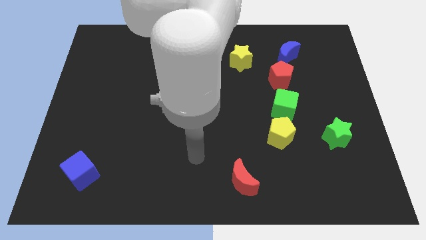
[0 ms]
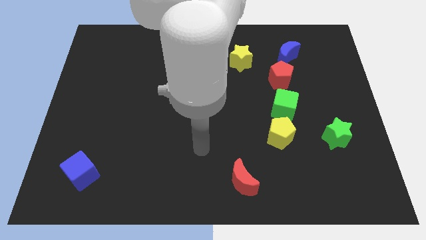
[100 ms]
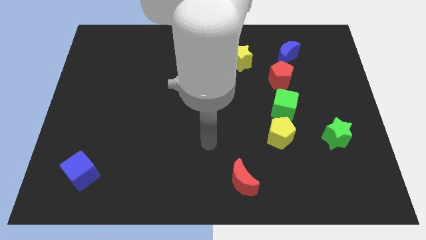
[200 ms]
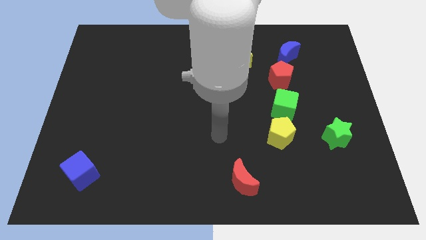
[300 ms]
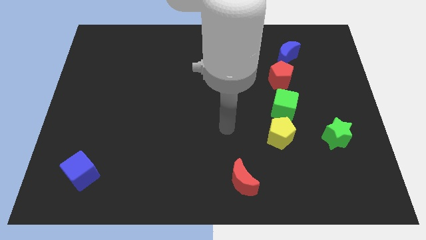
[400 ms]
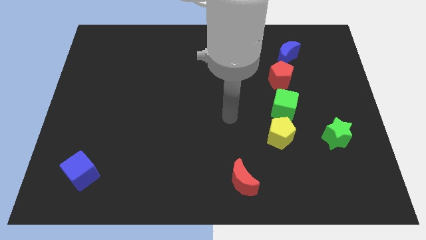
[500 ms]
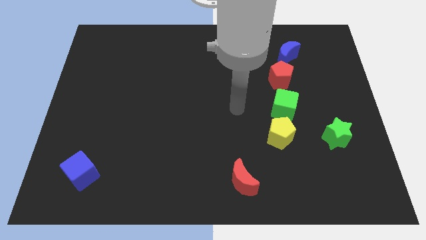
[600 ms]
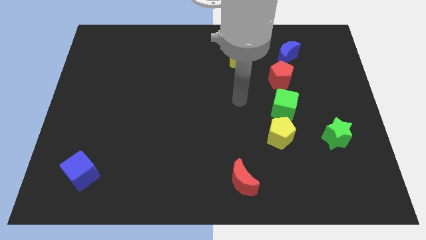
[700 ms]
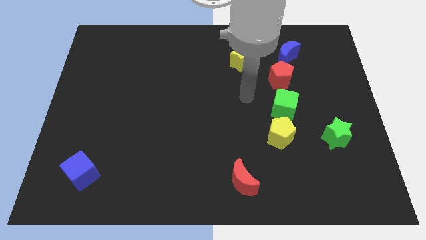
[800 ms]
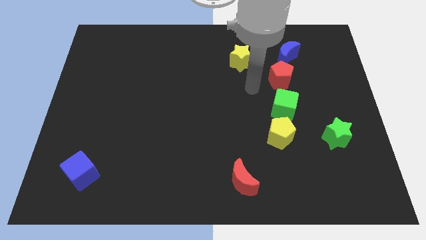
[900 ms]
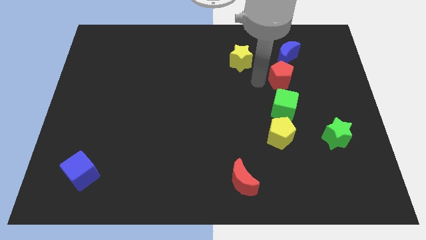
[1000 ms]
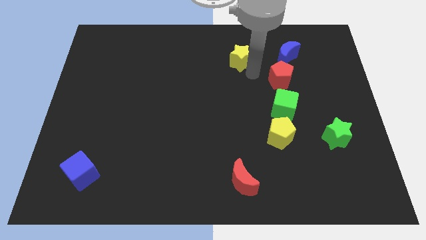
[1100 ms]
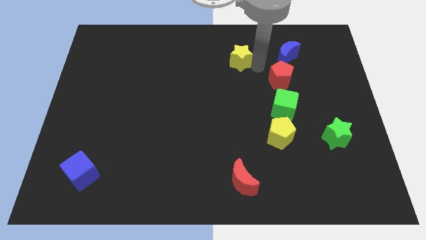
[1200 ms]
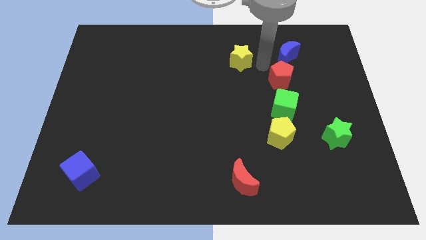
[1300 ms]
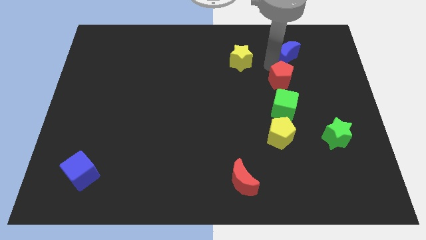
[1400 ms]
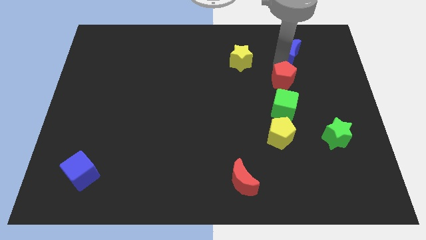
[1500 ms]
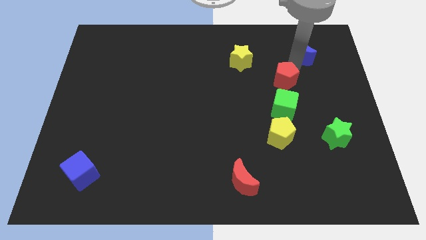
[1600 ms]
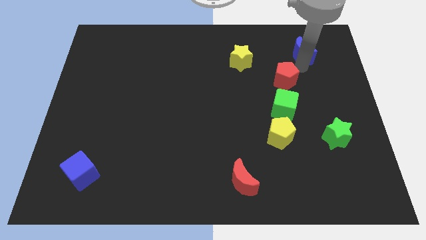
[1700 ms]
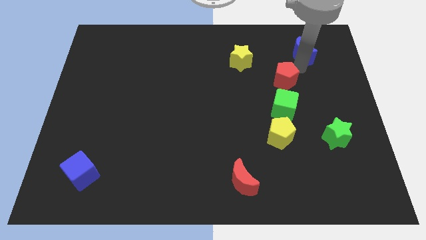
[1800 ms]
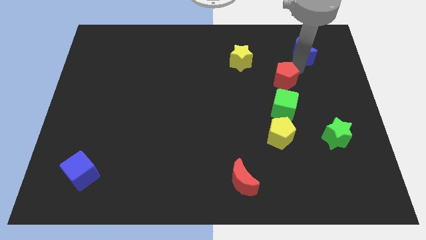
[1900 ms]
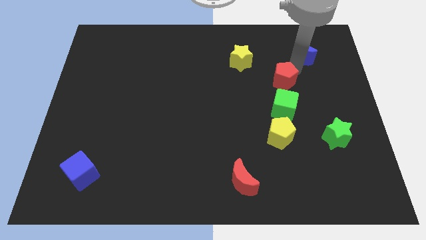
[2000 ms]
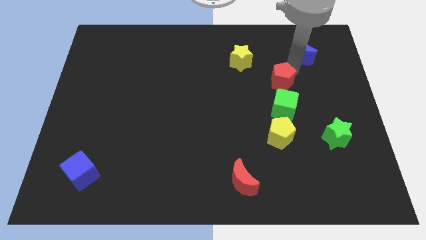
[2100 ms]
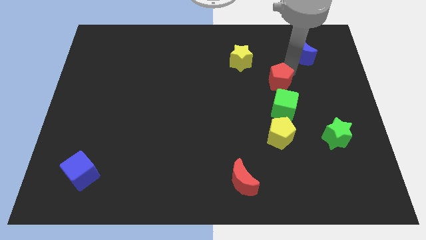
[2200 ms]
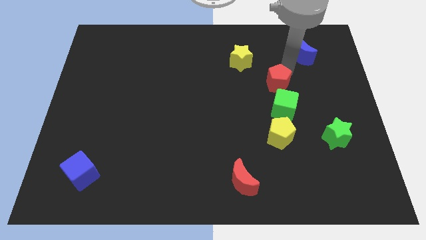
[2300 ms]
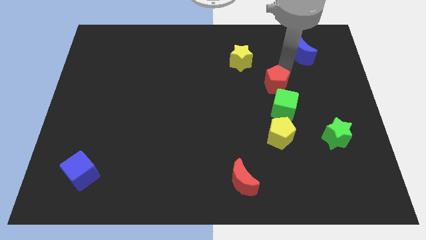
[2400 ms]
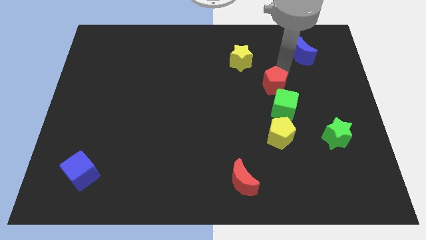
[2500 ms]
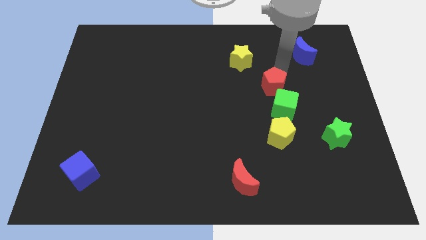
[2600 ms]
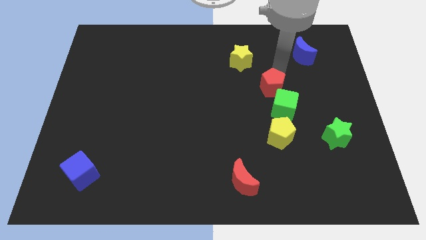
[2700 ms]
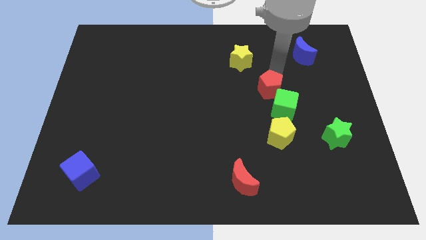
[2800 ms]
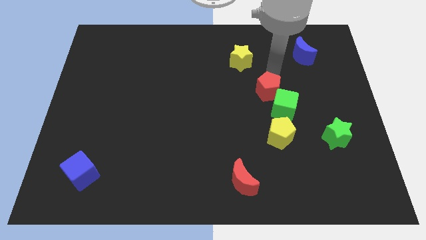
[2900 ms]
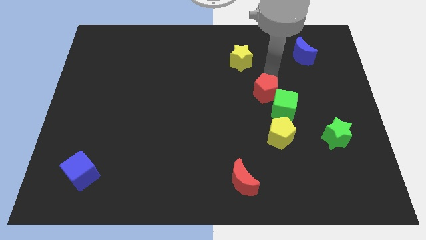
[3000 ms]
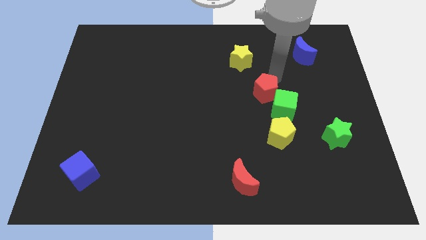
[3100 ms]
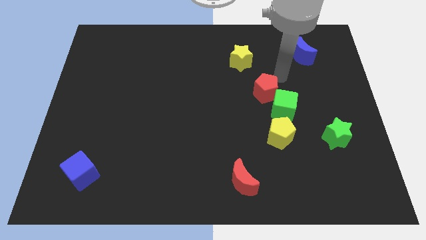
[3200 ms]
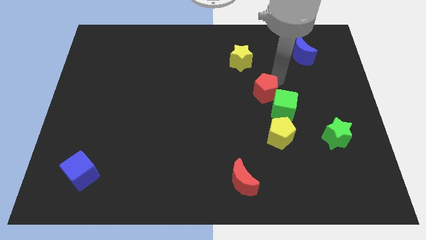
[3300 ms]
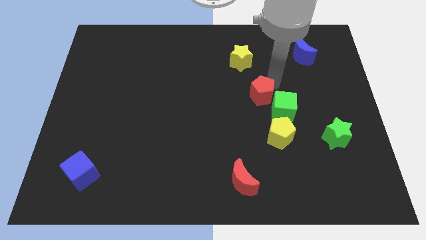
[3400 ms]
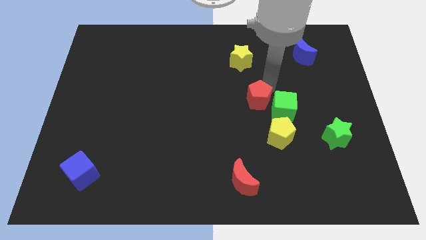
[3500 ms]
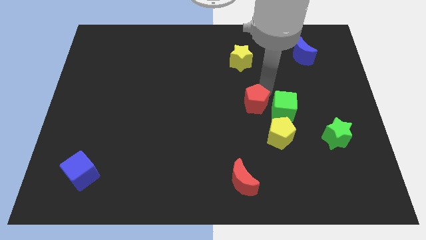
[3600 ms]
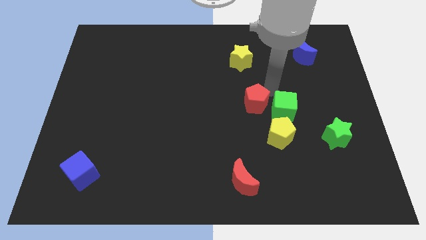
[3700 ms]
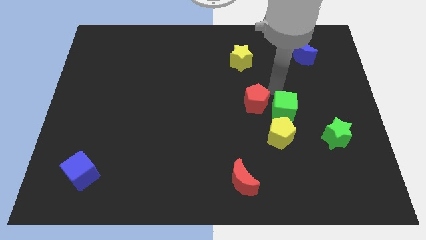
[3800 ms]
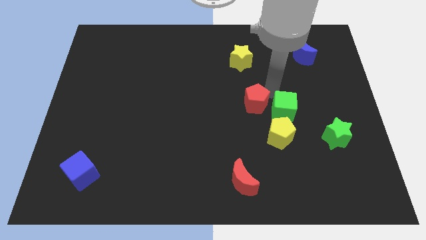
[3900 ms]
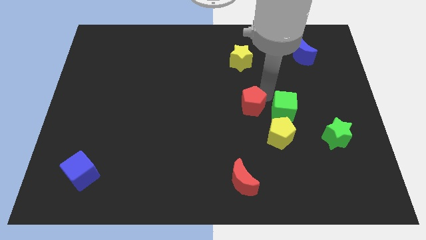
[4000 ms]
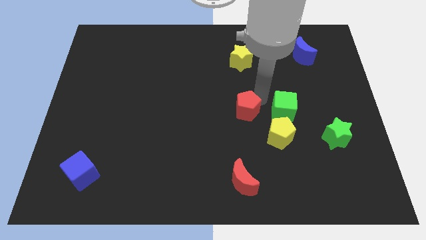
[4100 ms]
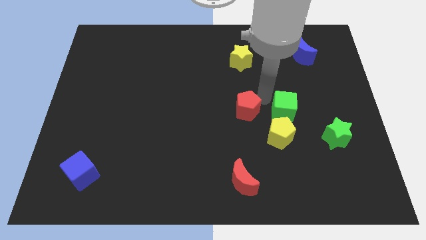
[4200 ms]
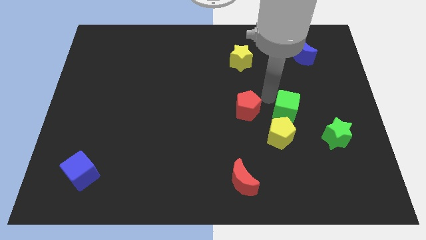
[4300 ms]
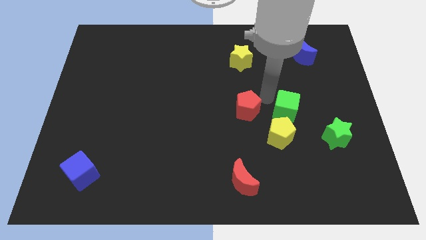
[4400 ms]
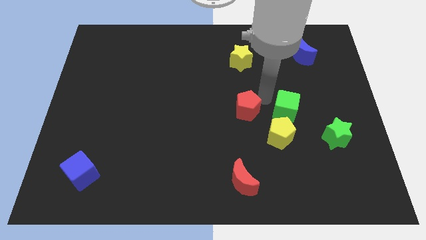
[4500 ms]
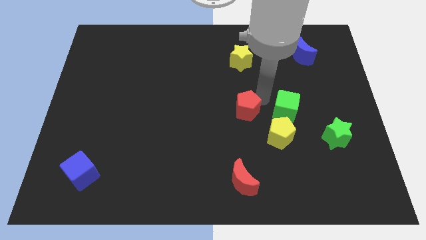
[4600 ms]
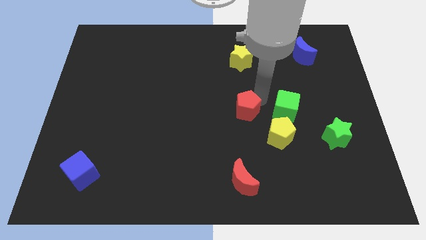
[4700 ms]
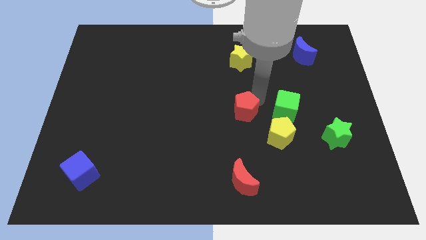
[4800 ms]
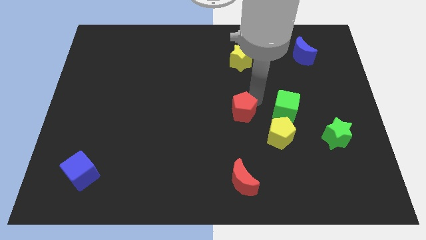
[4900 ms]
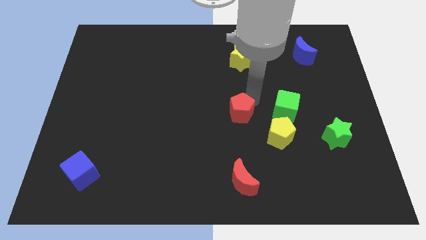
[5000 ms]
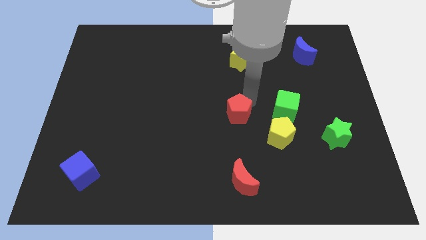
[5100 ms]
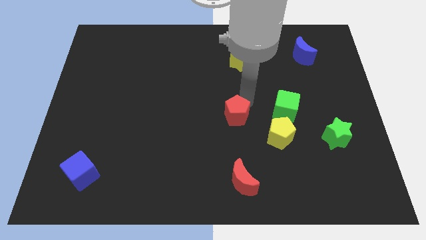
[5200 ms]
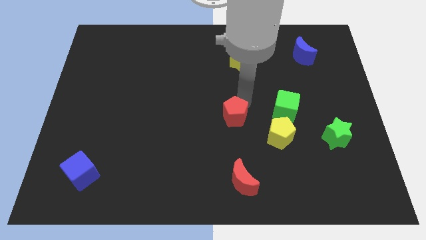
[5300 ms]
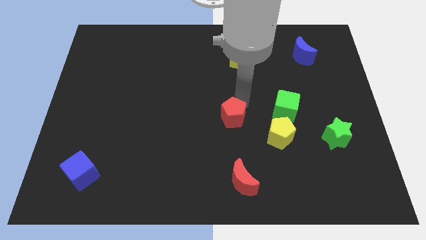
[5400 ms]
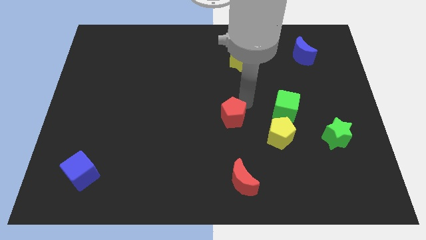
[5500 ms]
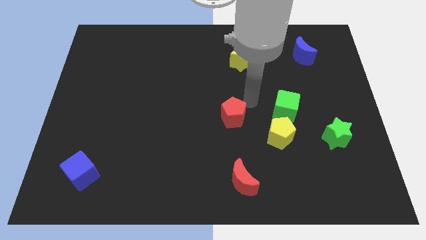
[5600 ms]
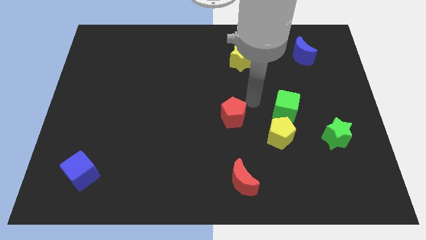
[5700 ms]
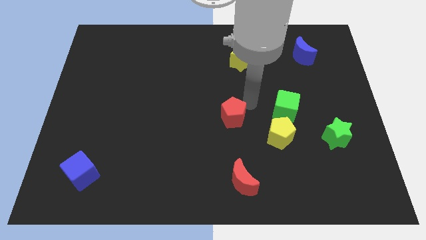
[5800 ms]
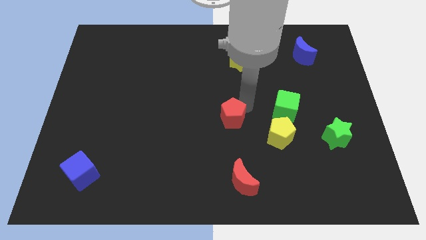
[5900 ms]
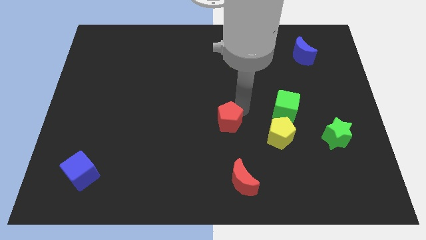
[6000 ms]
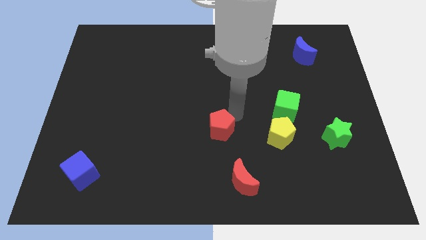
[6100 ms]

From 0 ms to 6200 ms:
slide the red pentagon diagonally downwards and to the left

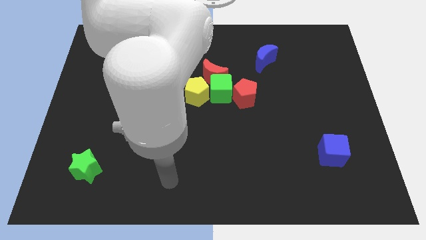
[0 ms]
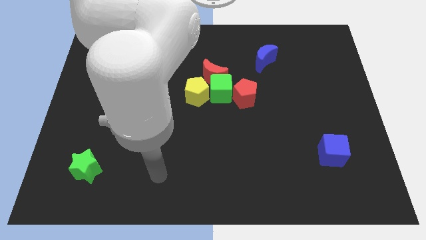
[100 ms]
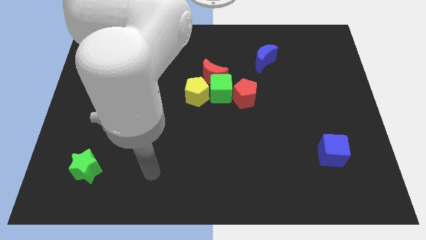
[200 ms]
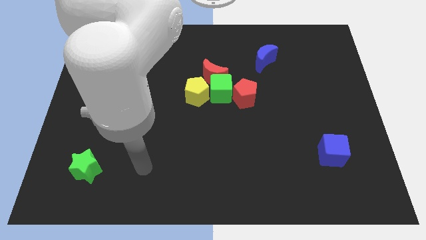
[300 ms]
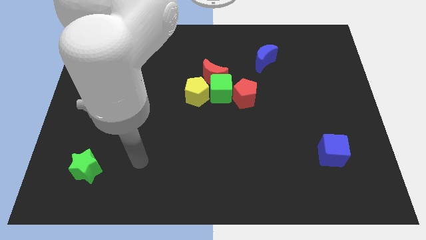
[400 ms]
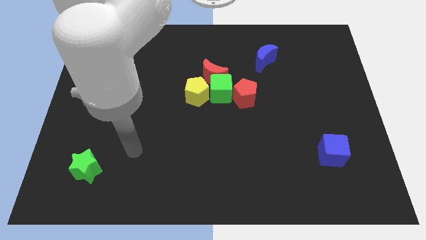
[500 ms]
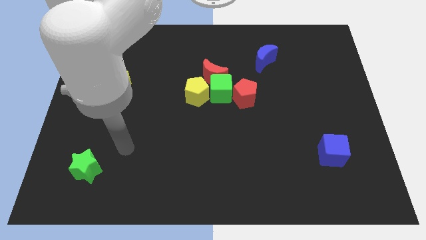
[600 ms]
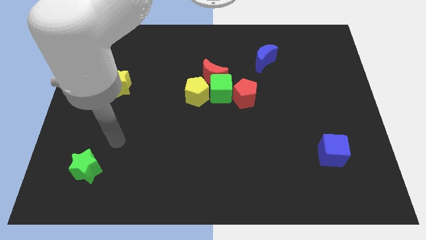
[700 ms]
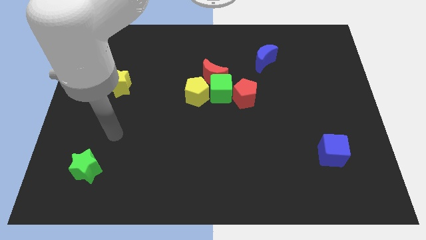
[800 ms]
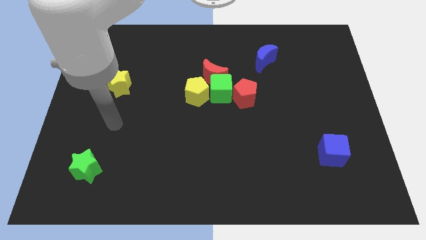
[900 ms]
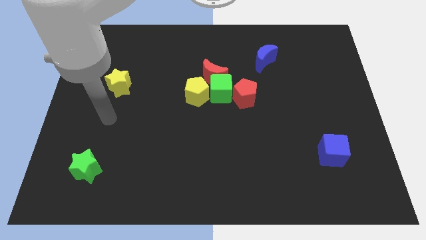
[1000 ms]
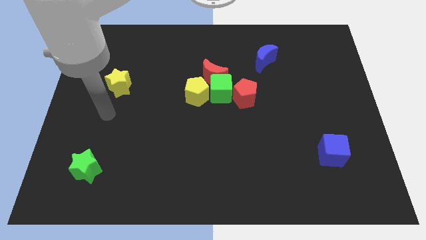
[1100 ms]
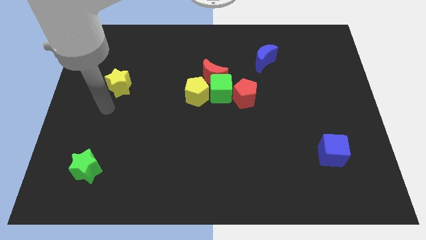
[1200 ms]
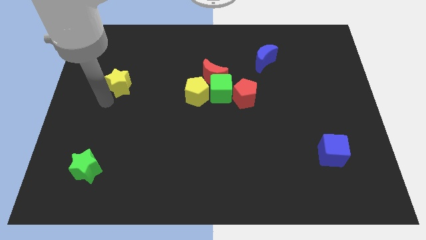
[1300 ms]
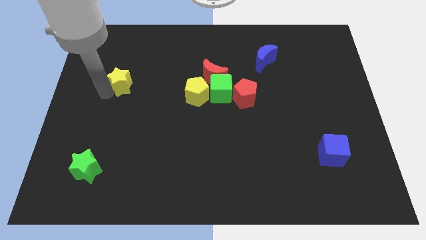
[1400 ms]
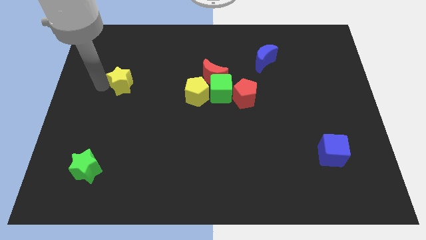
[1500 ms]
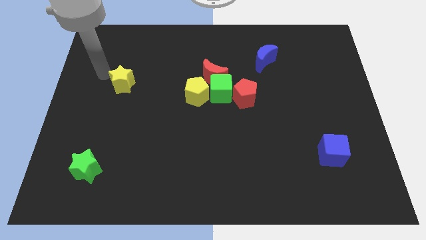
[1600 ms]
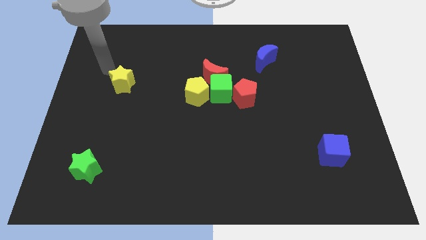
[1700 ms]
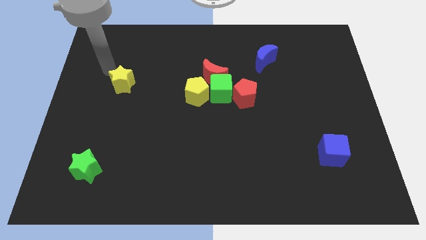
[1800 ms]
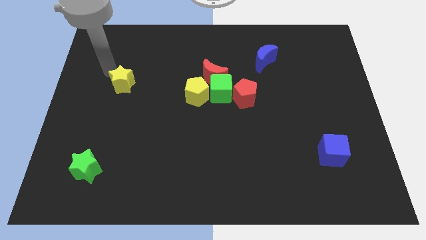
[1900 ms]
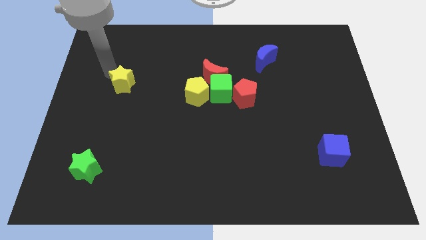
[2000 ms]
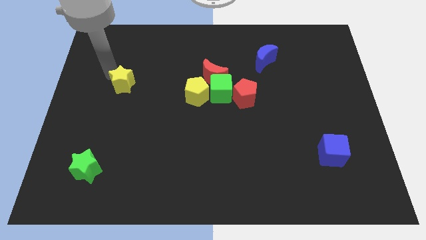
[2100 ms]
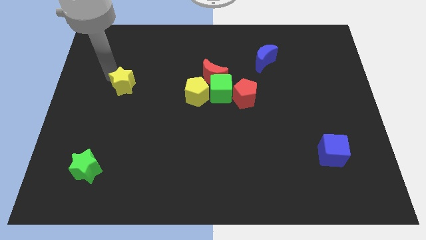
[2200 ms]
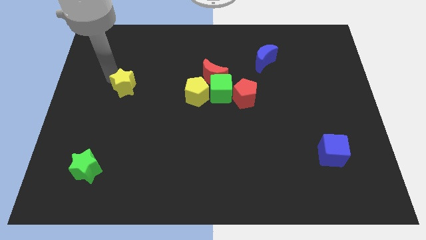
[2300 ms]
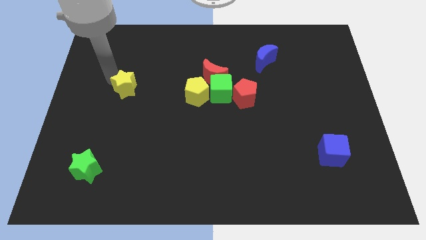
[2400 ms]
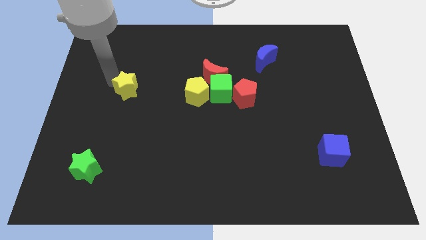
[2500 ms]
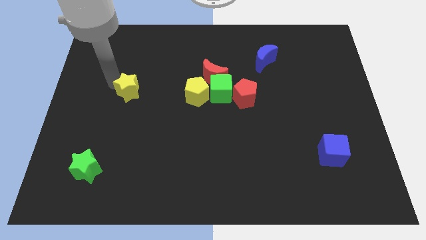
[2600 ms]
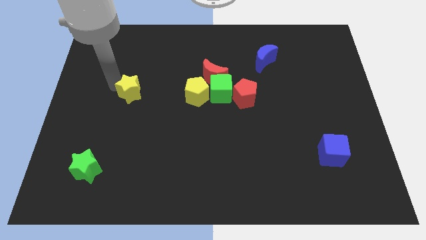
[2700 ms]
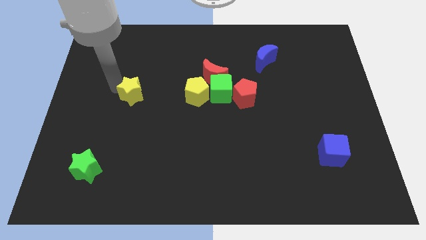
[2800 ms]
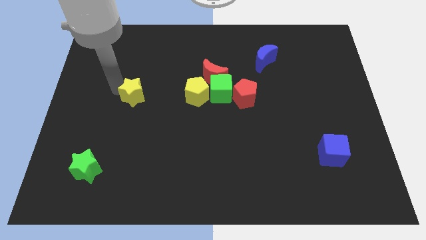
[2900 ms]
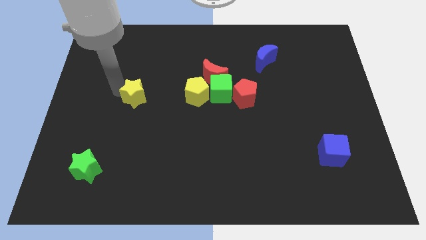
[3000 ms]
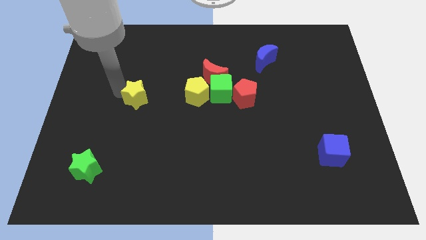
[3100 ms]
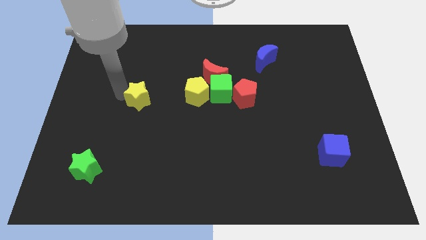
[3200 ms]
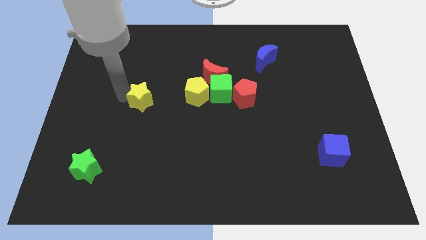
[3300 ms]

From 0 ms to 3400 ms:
push the yellow star a little bit diagonally down and to the right
